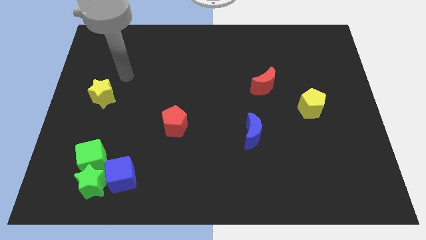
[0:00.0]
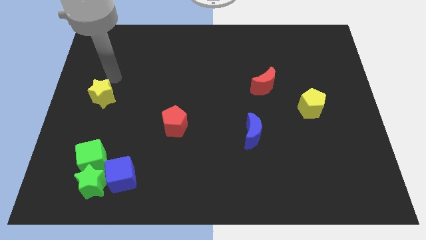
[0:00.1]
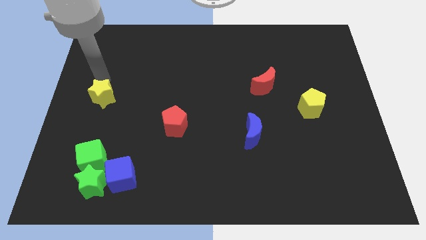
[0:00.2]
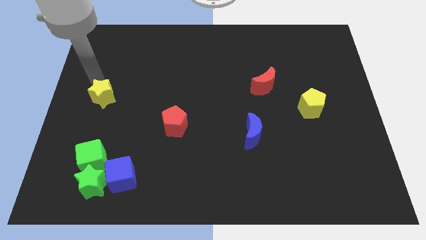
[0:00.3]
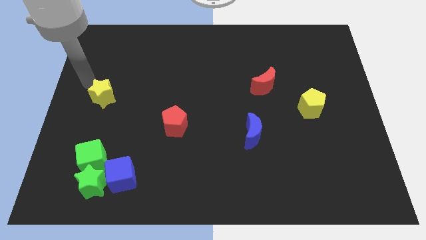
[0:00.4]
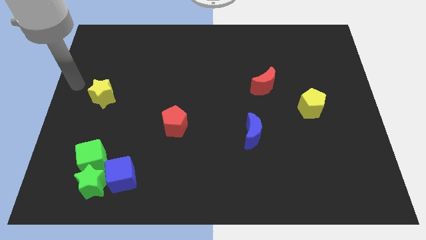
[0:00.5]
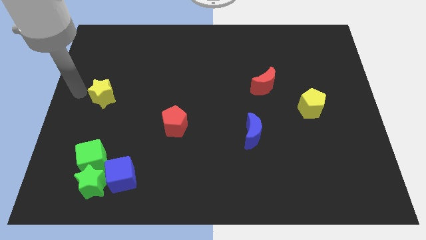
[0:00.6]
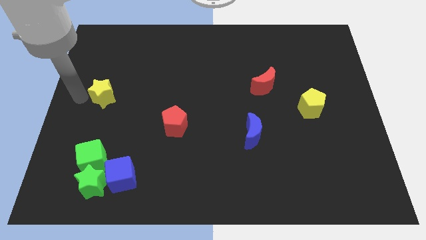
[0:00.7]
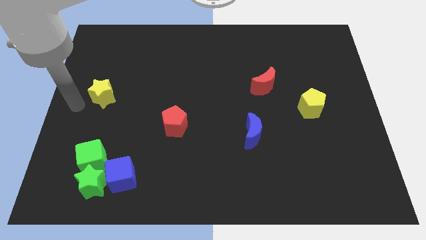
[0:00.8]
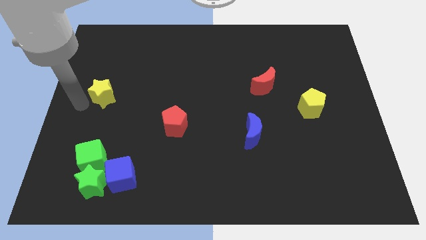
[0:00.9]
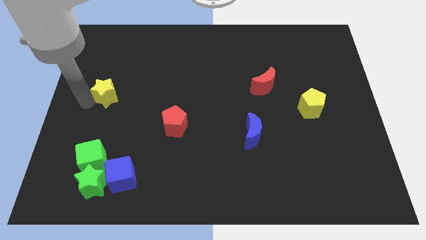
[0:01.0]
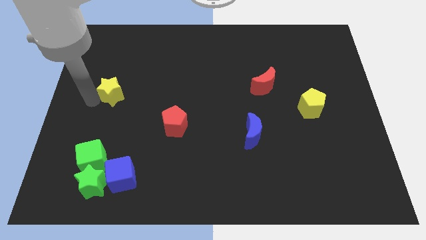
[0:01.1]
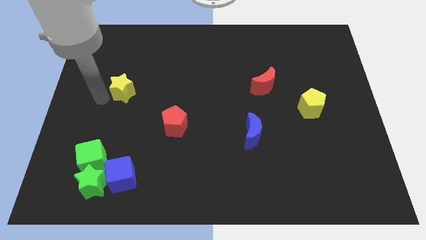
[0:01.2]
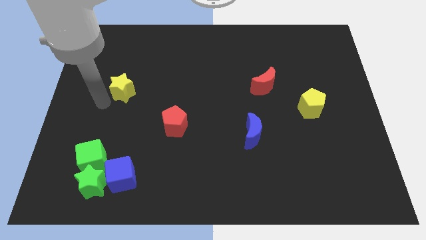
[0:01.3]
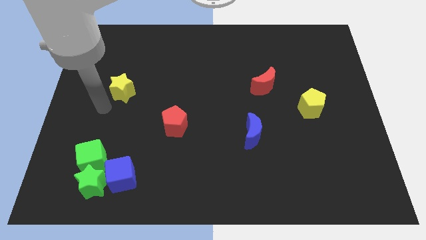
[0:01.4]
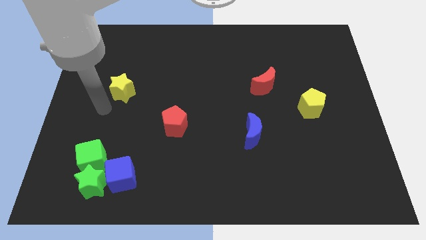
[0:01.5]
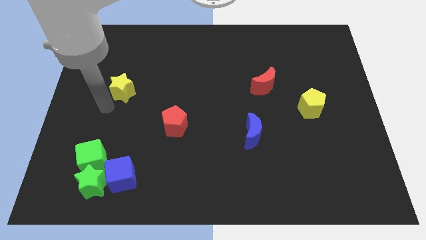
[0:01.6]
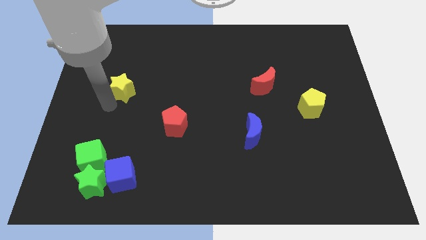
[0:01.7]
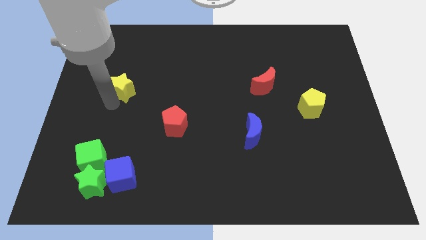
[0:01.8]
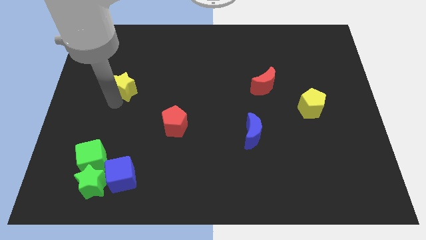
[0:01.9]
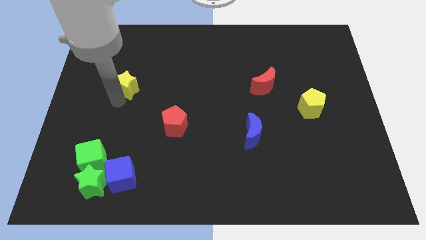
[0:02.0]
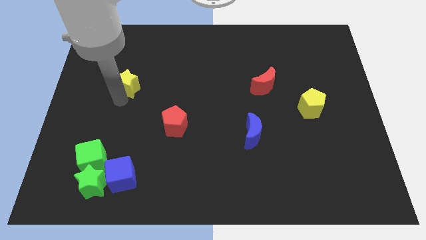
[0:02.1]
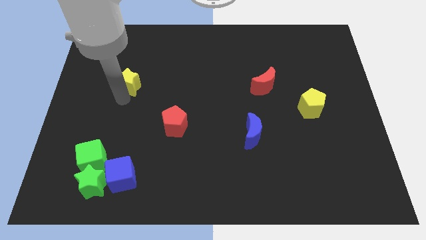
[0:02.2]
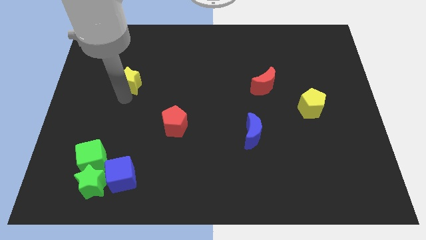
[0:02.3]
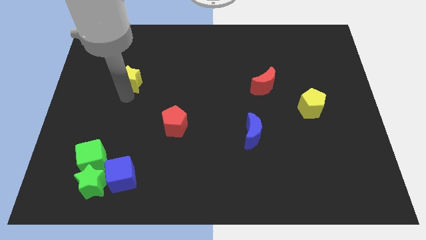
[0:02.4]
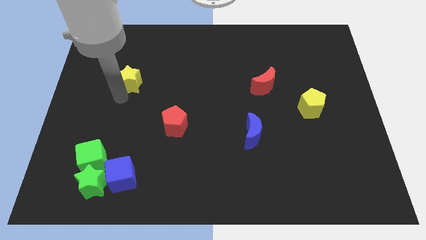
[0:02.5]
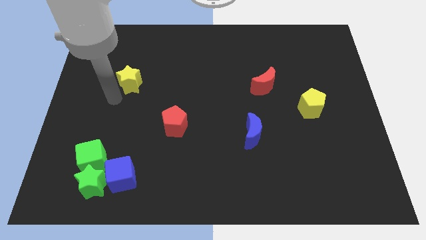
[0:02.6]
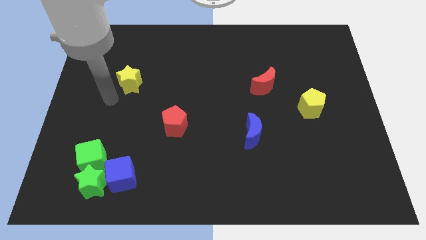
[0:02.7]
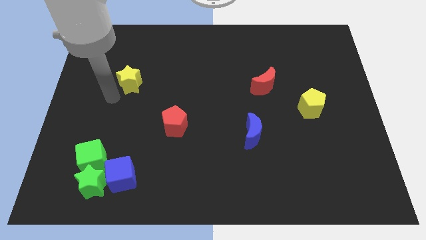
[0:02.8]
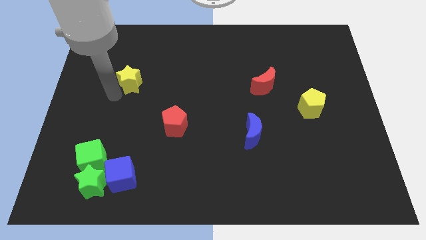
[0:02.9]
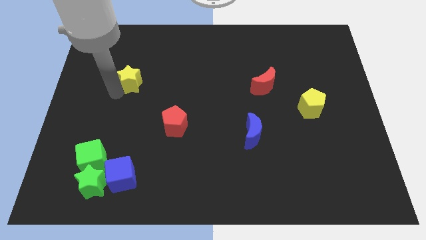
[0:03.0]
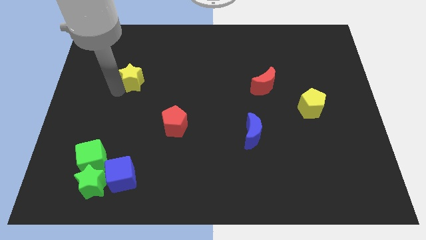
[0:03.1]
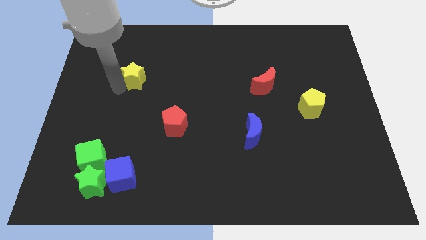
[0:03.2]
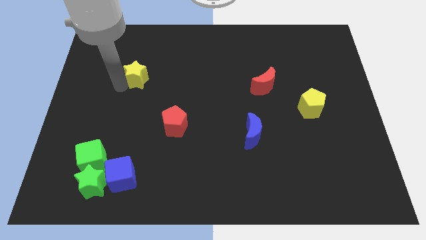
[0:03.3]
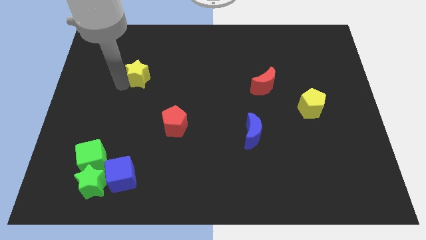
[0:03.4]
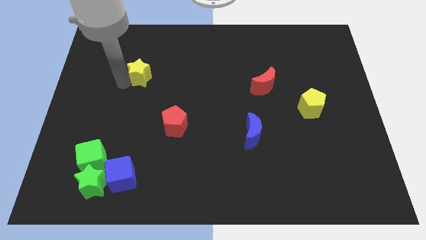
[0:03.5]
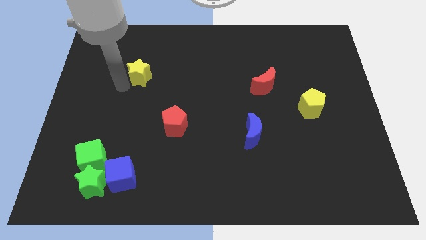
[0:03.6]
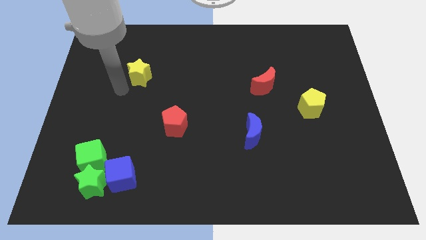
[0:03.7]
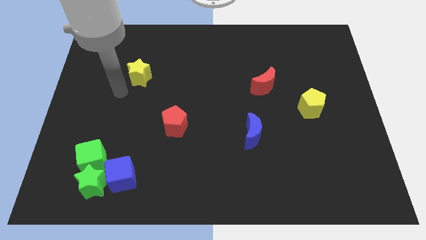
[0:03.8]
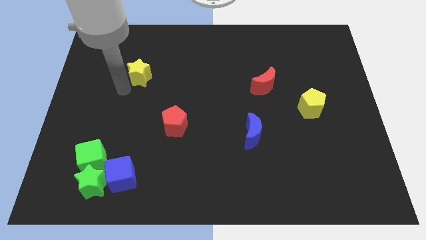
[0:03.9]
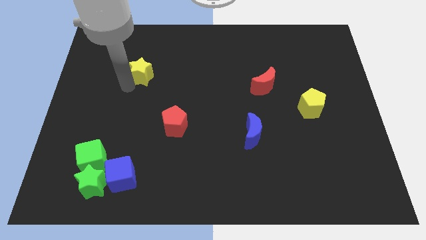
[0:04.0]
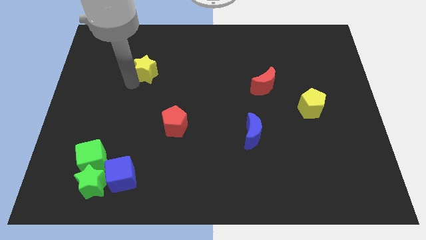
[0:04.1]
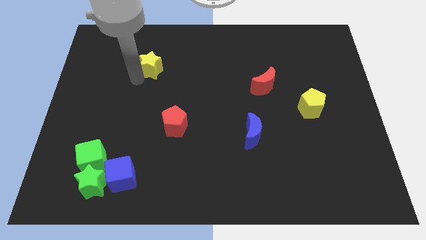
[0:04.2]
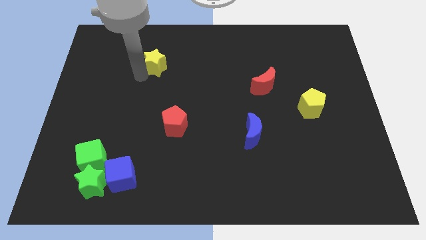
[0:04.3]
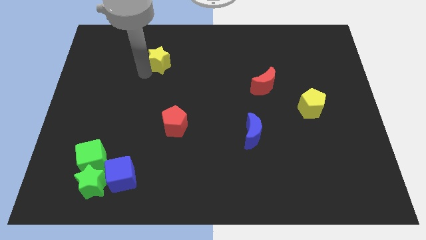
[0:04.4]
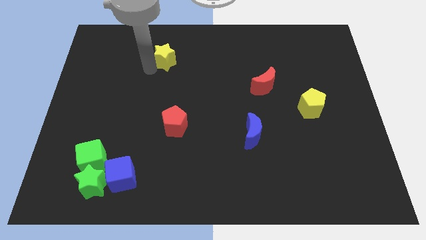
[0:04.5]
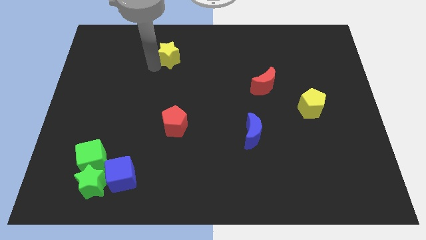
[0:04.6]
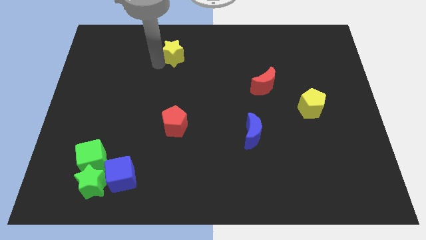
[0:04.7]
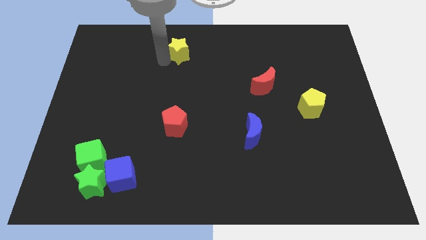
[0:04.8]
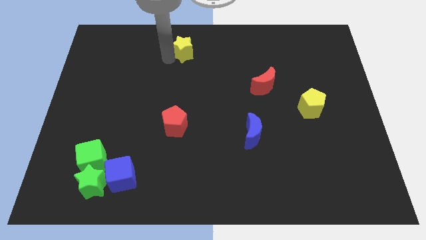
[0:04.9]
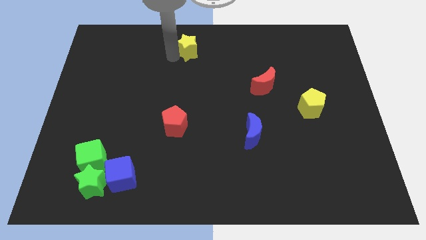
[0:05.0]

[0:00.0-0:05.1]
move the yellow star to the top

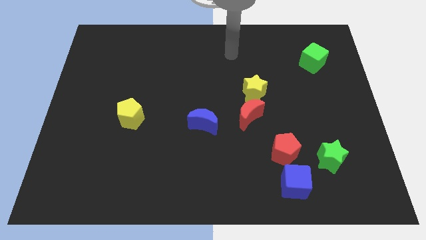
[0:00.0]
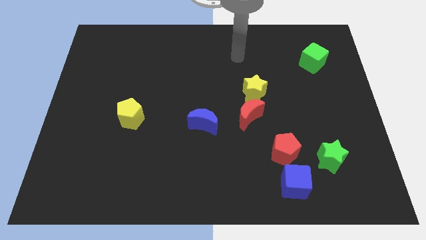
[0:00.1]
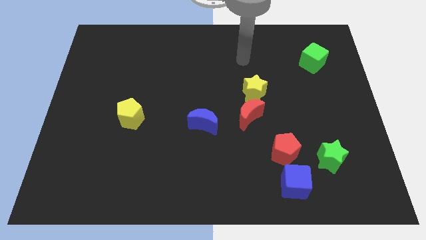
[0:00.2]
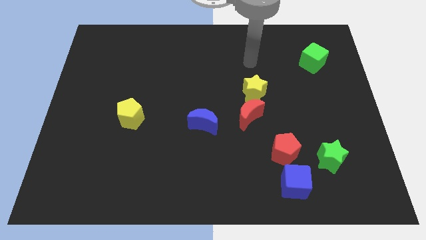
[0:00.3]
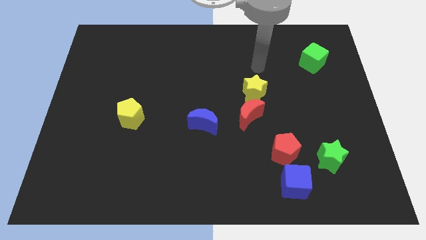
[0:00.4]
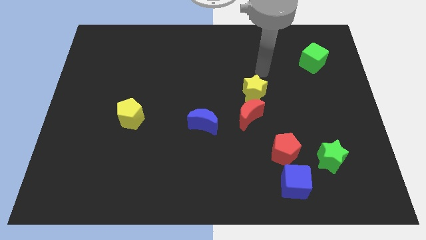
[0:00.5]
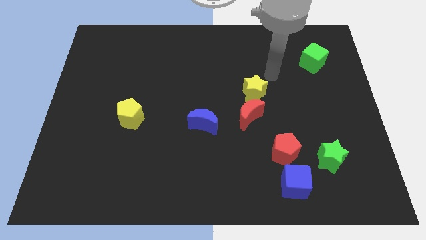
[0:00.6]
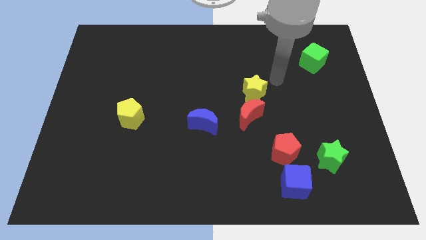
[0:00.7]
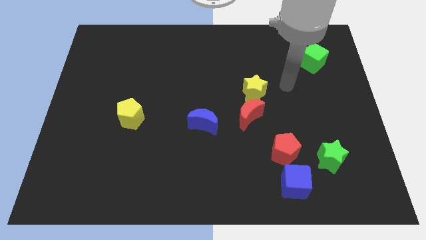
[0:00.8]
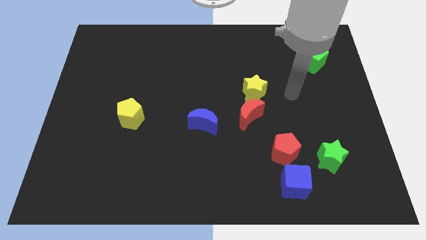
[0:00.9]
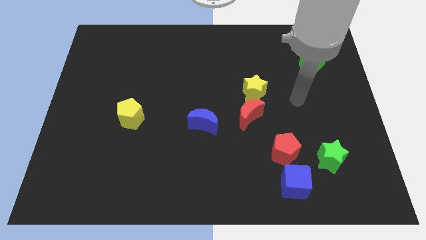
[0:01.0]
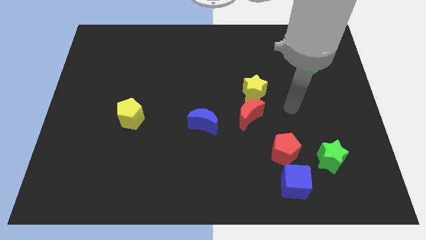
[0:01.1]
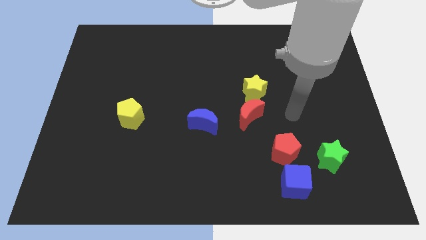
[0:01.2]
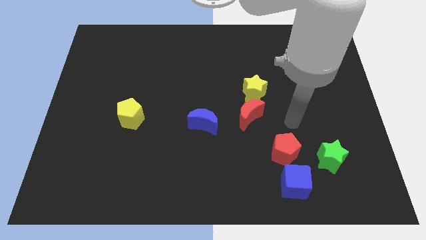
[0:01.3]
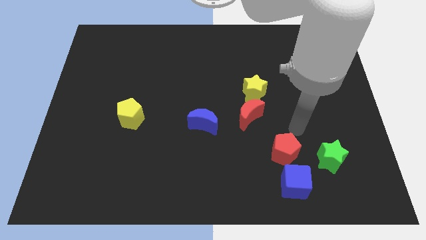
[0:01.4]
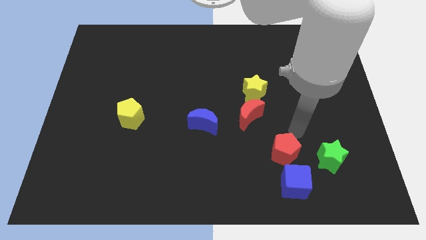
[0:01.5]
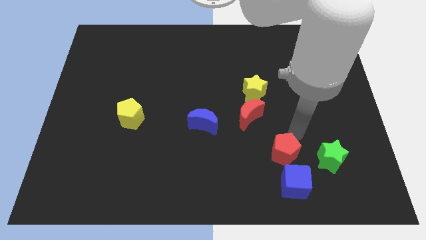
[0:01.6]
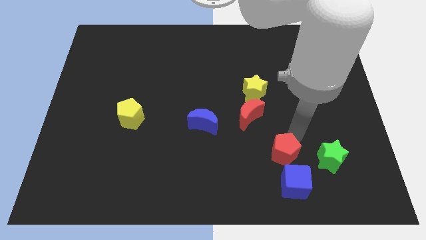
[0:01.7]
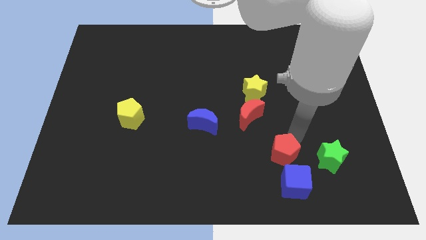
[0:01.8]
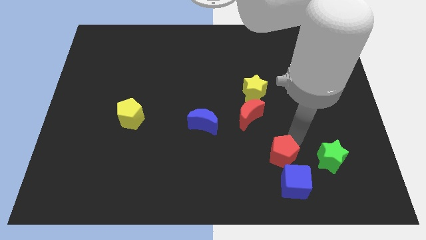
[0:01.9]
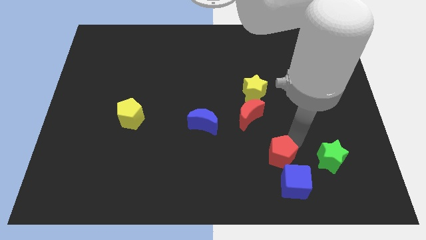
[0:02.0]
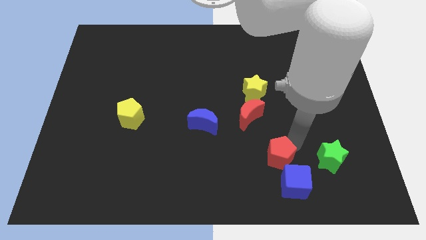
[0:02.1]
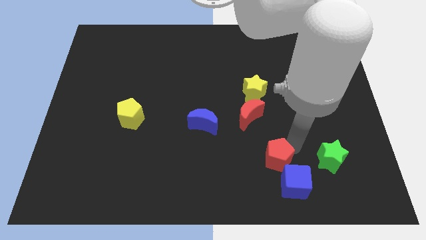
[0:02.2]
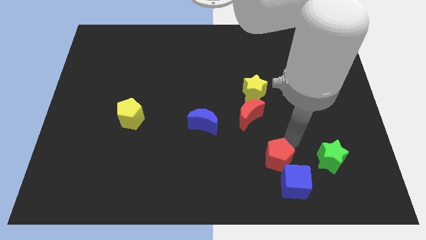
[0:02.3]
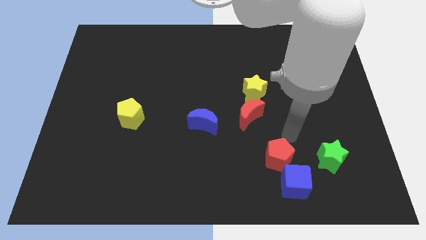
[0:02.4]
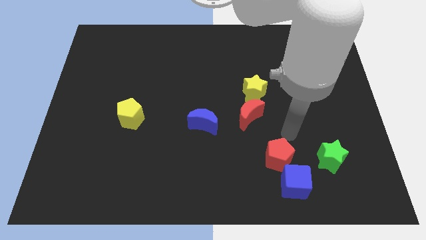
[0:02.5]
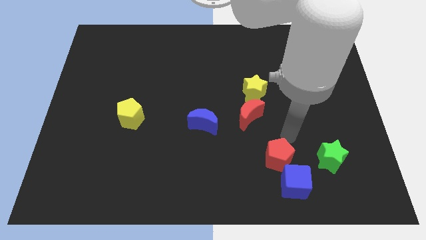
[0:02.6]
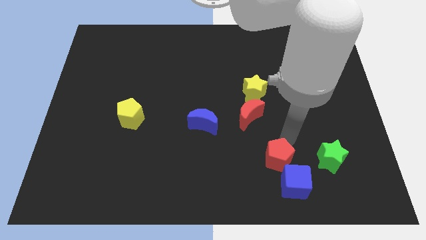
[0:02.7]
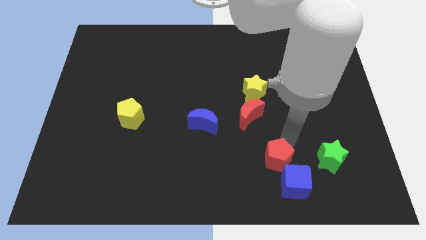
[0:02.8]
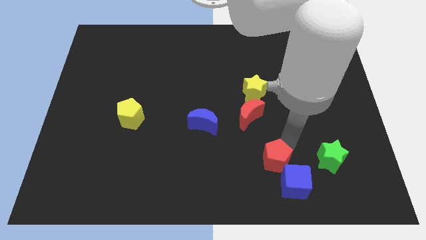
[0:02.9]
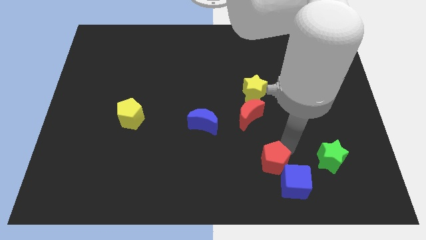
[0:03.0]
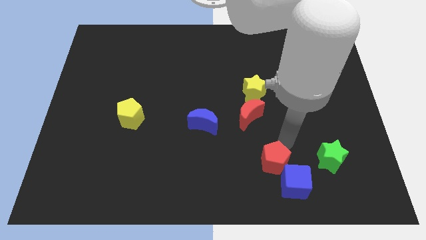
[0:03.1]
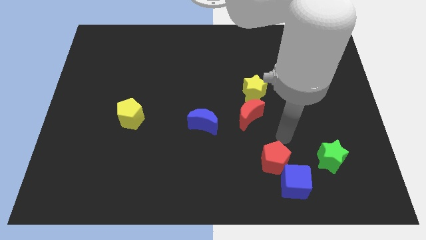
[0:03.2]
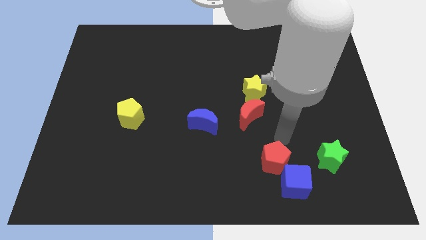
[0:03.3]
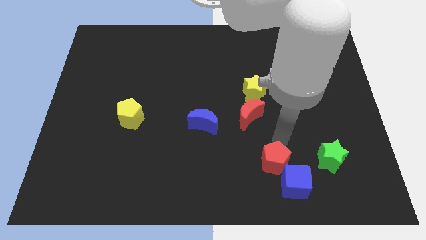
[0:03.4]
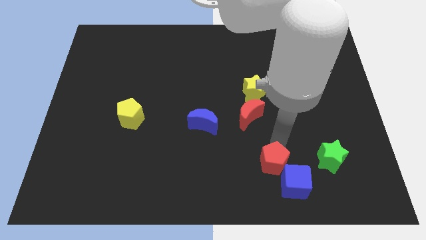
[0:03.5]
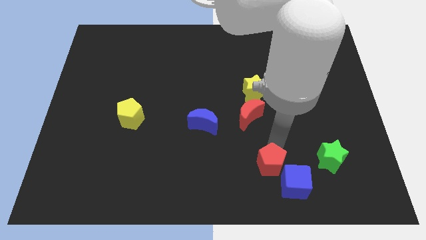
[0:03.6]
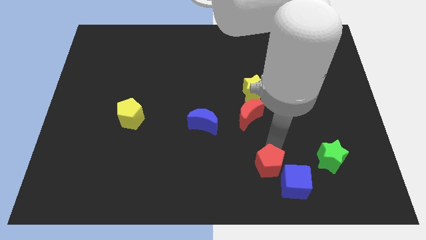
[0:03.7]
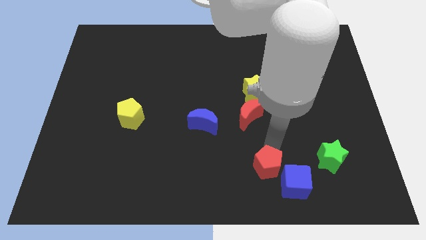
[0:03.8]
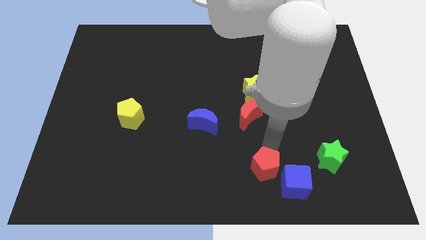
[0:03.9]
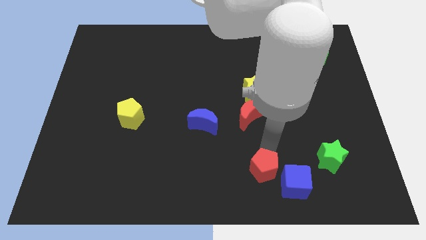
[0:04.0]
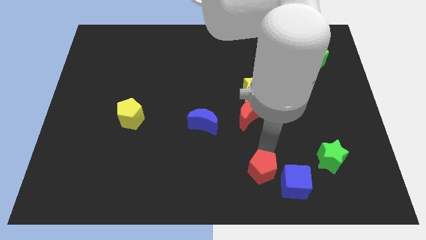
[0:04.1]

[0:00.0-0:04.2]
put the red pentagon to the bottom side
